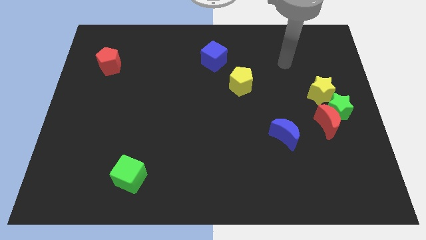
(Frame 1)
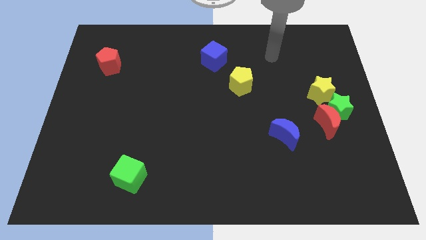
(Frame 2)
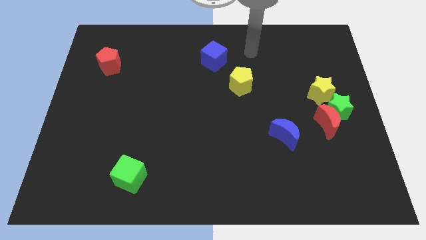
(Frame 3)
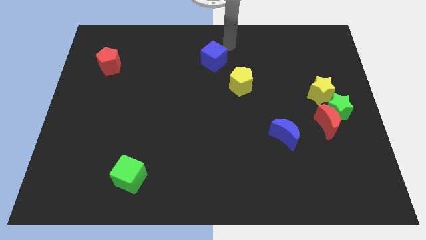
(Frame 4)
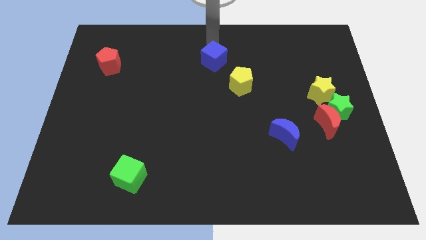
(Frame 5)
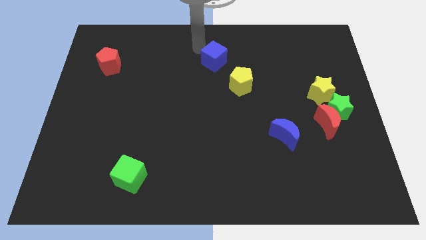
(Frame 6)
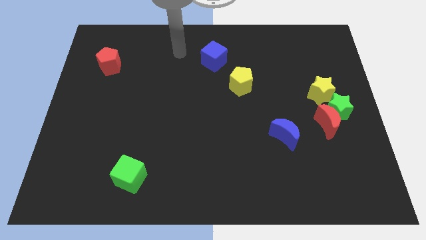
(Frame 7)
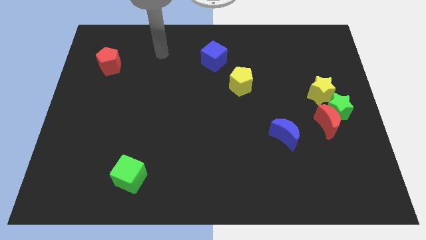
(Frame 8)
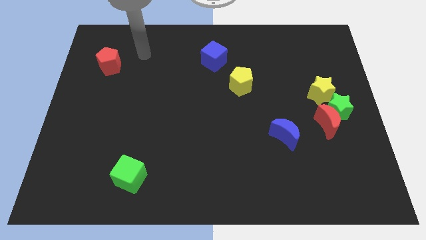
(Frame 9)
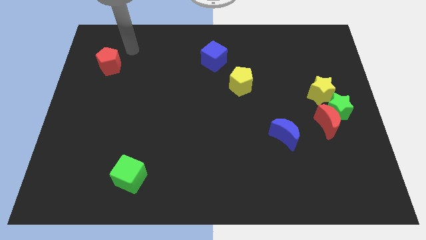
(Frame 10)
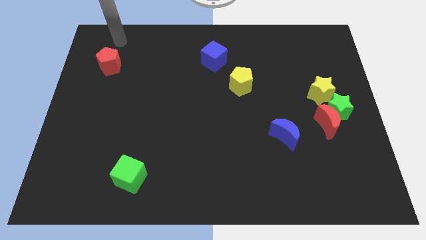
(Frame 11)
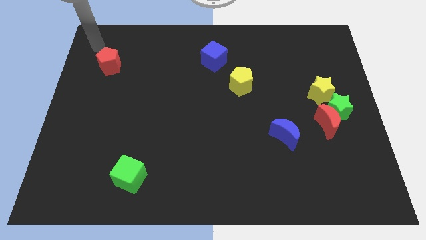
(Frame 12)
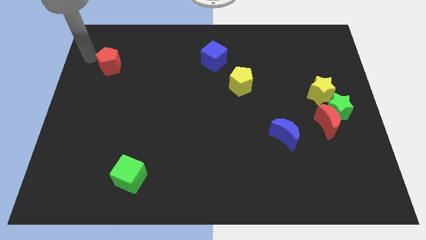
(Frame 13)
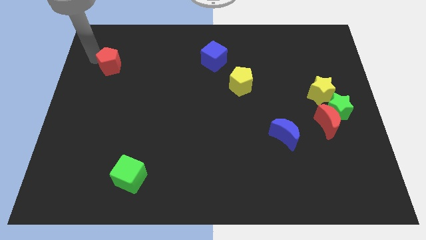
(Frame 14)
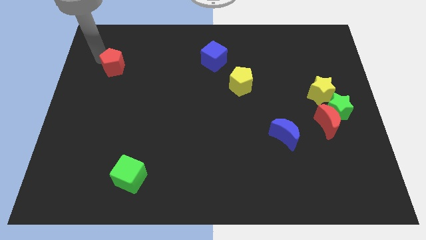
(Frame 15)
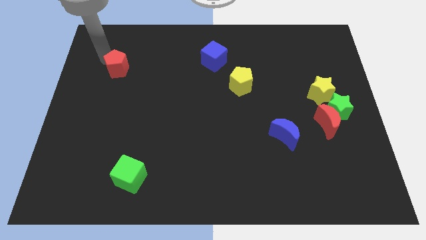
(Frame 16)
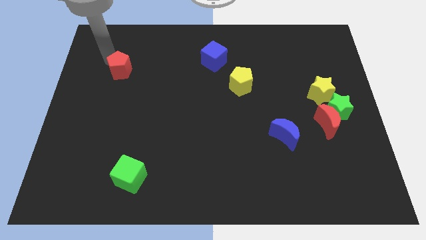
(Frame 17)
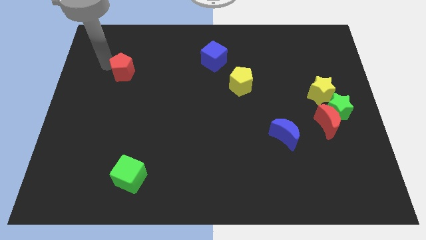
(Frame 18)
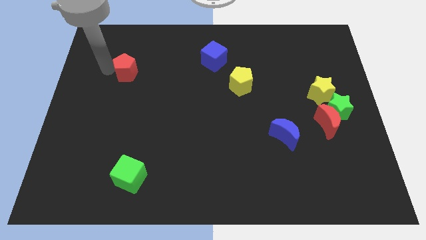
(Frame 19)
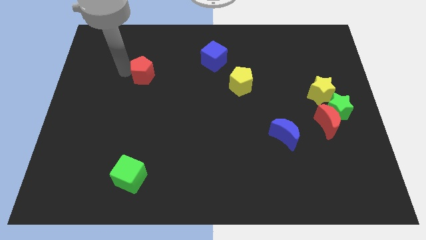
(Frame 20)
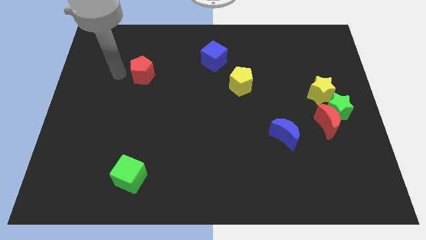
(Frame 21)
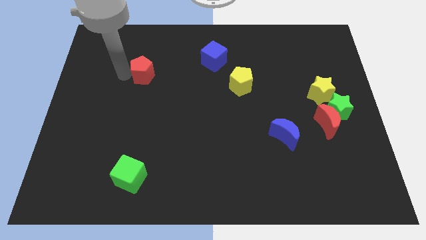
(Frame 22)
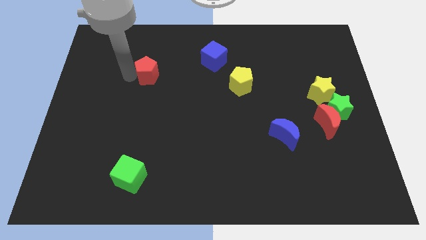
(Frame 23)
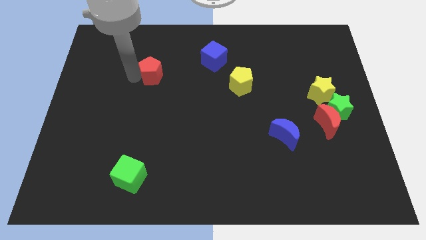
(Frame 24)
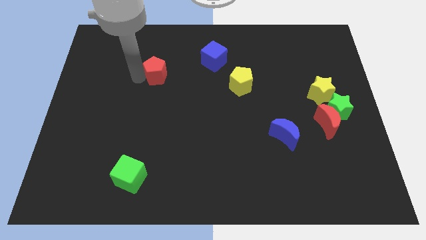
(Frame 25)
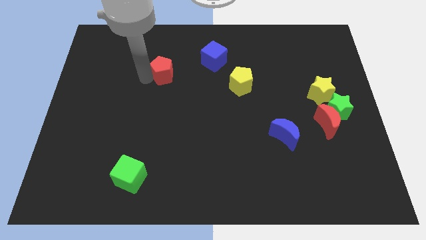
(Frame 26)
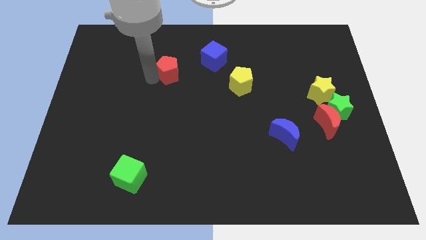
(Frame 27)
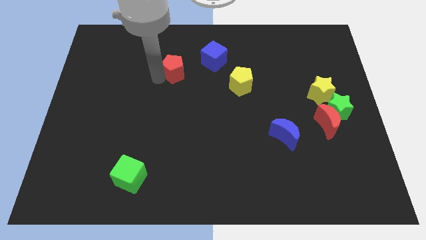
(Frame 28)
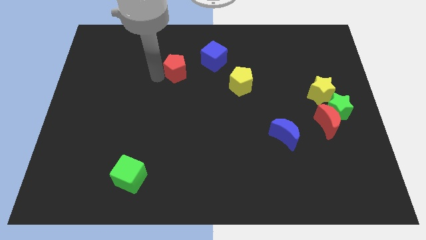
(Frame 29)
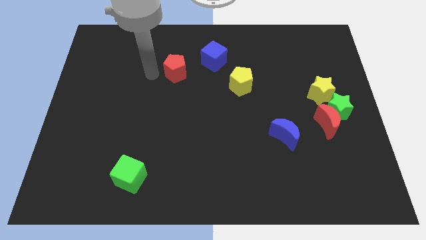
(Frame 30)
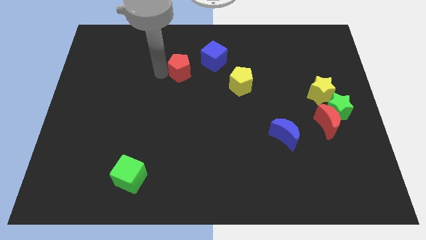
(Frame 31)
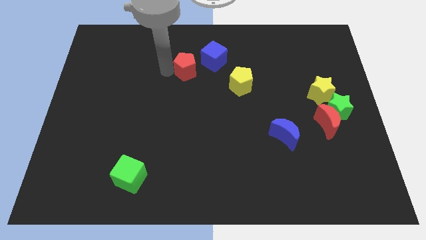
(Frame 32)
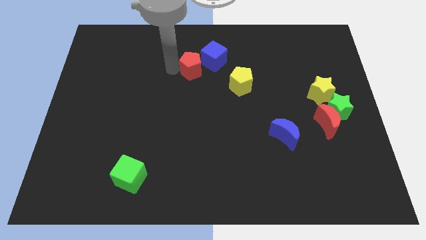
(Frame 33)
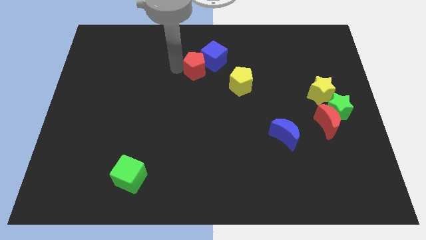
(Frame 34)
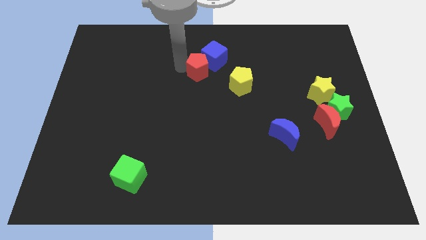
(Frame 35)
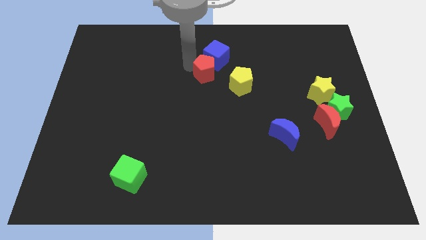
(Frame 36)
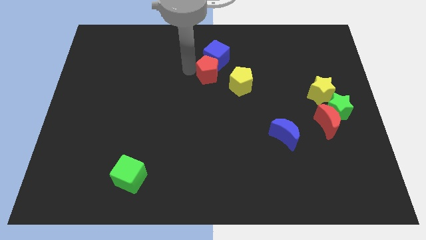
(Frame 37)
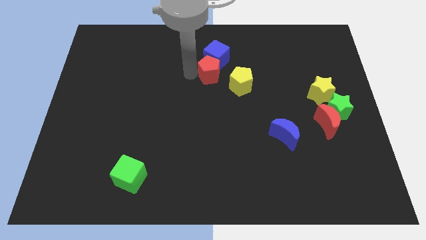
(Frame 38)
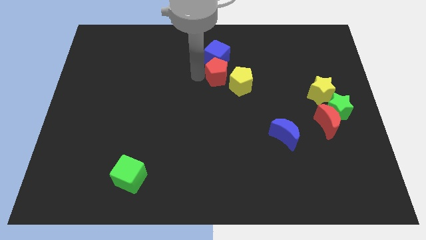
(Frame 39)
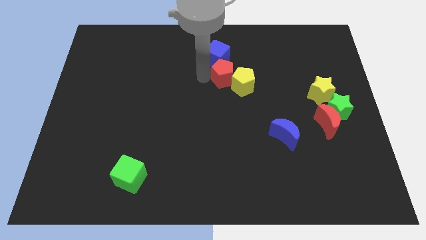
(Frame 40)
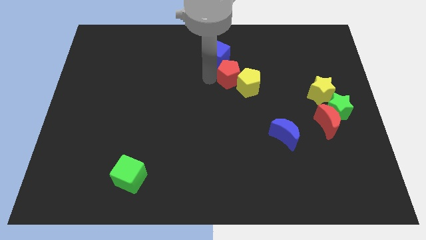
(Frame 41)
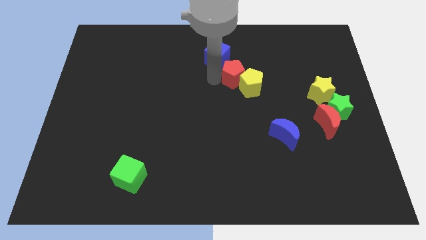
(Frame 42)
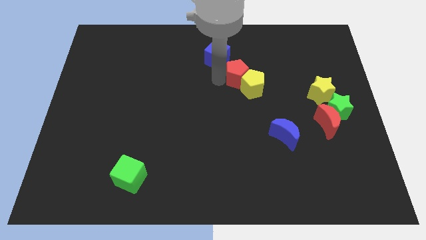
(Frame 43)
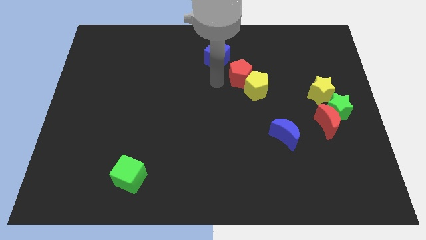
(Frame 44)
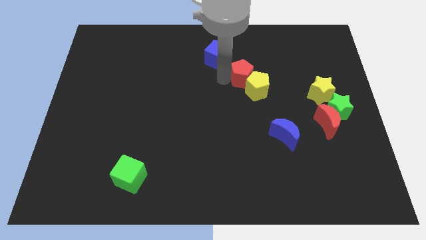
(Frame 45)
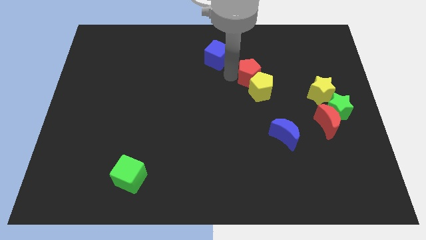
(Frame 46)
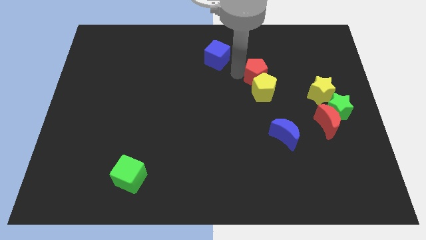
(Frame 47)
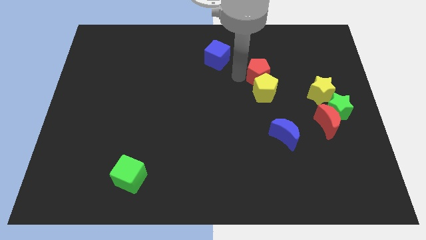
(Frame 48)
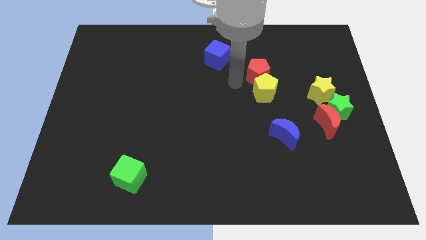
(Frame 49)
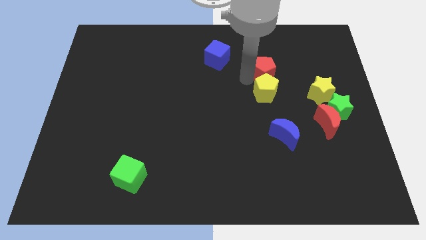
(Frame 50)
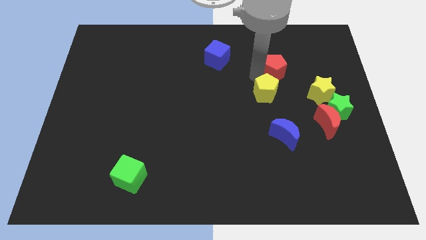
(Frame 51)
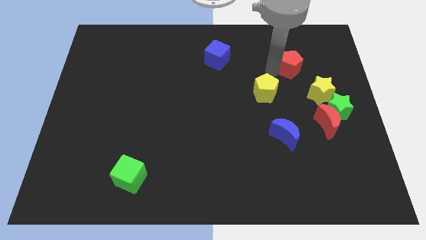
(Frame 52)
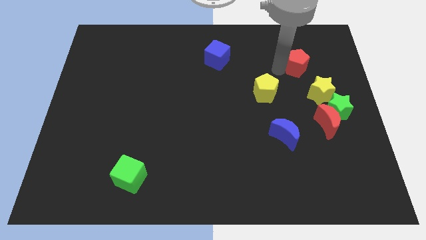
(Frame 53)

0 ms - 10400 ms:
push the red pentagon to the top side of the yellow star

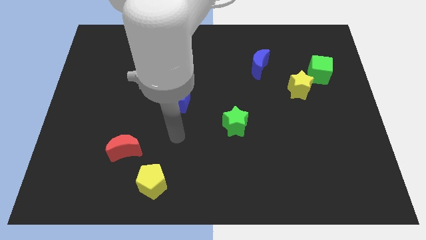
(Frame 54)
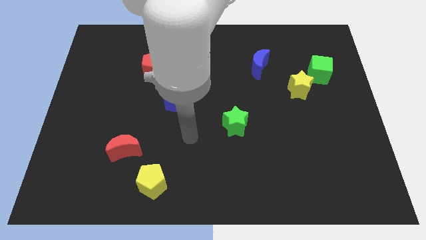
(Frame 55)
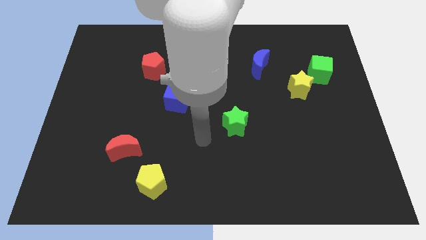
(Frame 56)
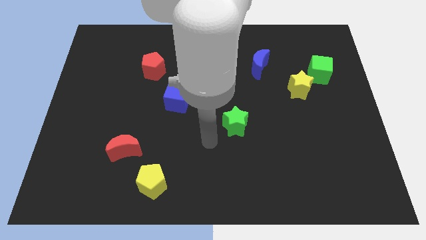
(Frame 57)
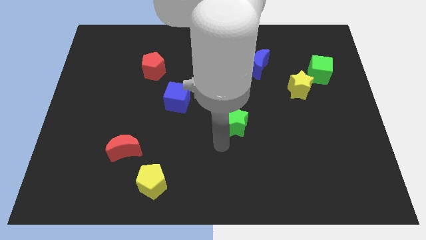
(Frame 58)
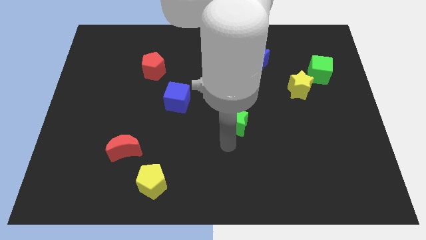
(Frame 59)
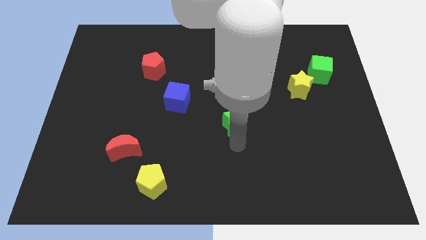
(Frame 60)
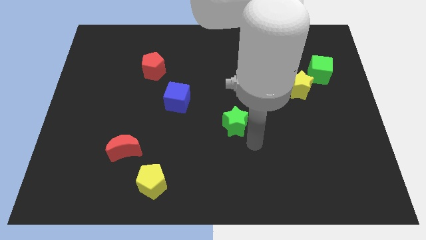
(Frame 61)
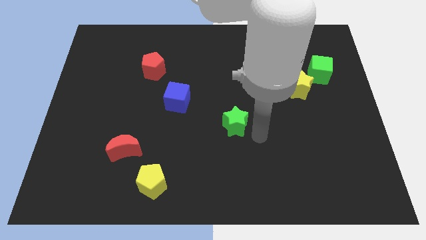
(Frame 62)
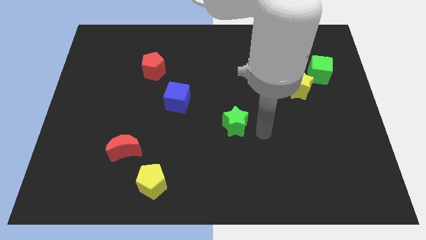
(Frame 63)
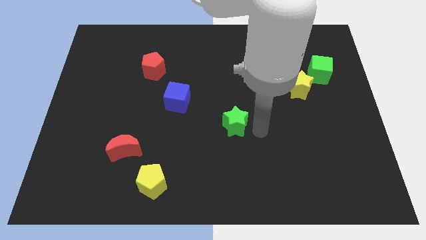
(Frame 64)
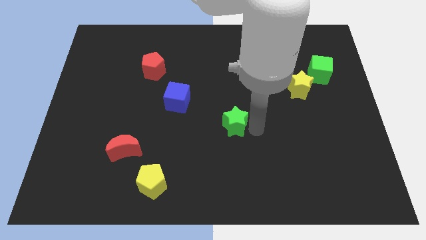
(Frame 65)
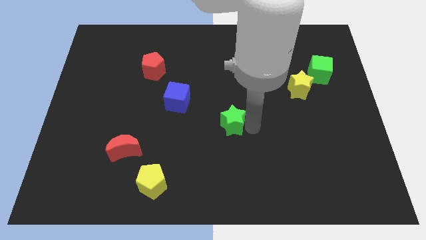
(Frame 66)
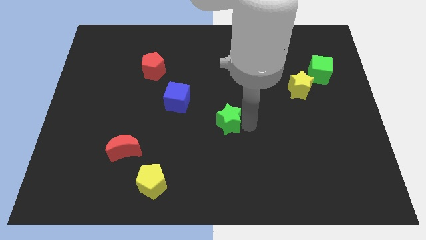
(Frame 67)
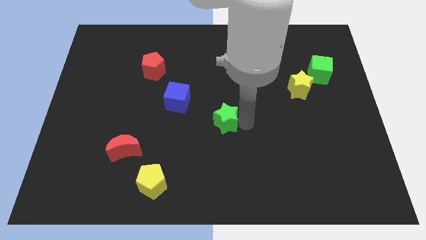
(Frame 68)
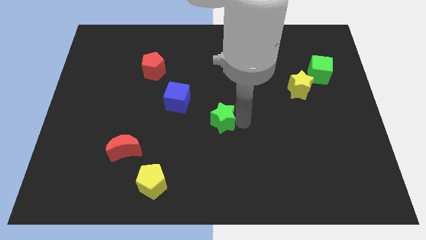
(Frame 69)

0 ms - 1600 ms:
slide the green star to the bottom right of the blue cube

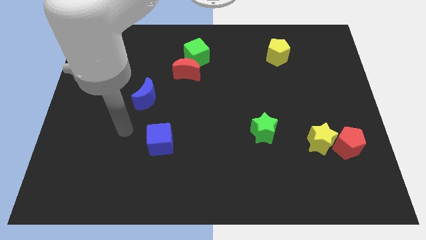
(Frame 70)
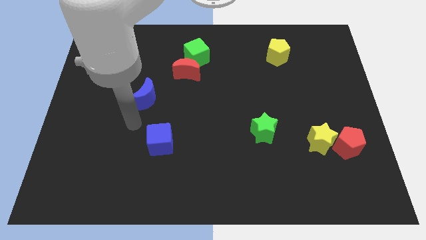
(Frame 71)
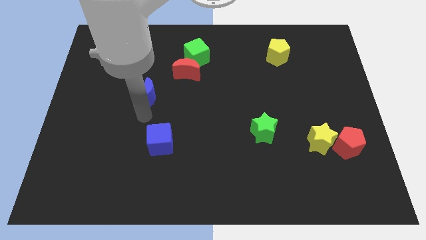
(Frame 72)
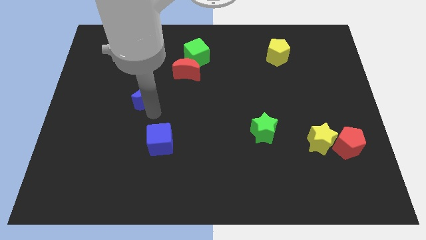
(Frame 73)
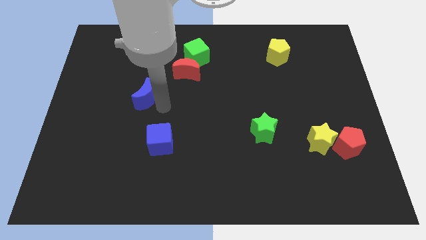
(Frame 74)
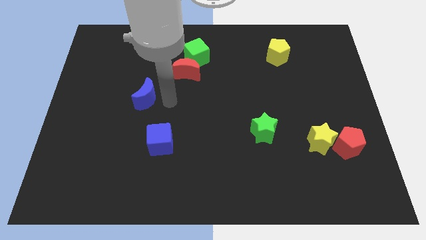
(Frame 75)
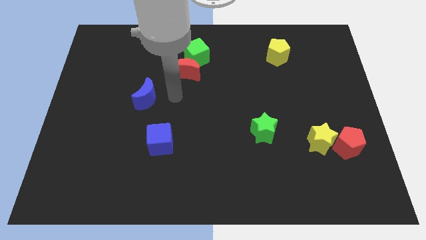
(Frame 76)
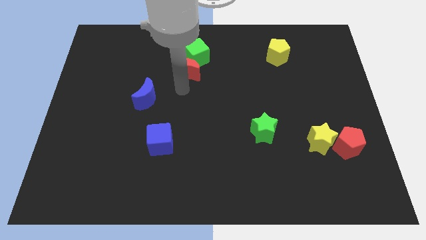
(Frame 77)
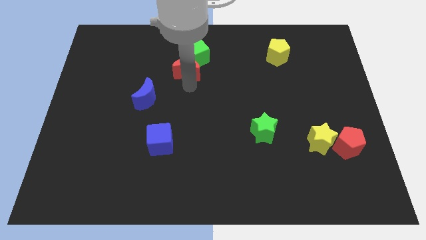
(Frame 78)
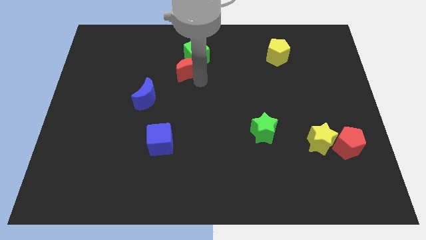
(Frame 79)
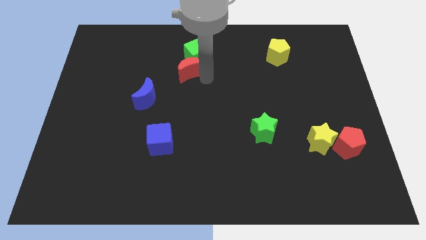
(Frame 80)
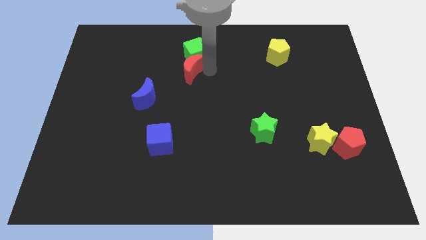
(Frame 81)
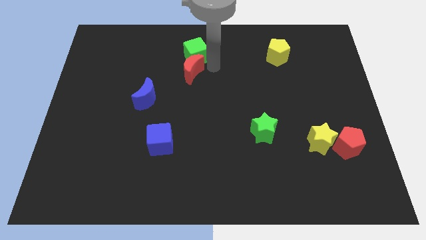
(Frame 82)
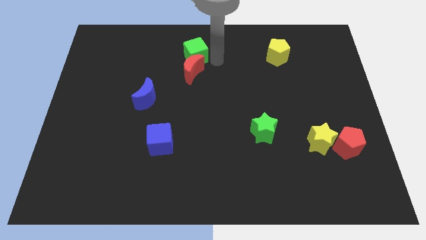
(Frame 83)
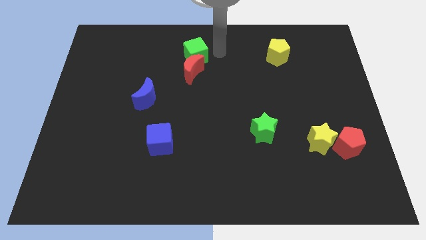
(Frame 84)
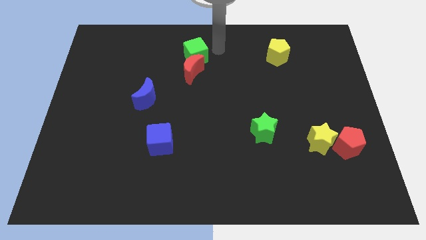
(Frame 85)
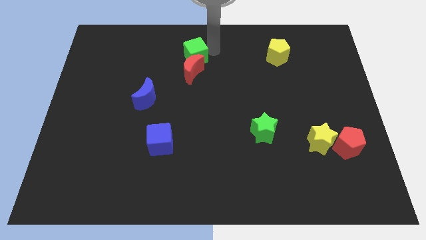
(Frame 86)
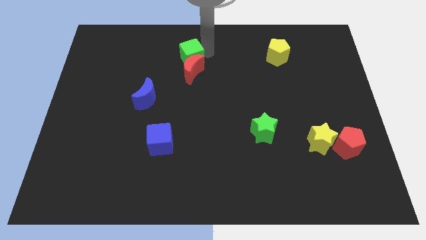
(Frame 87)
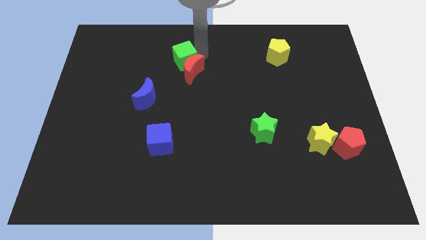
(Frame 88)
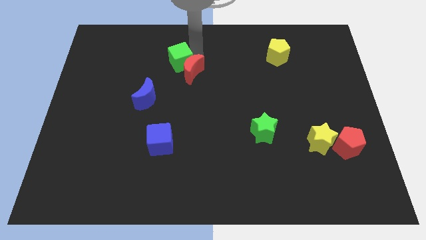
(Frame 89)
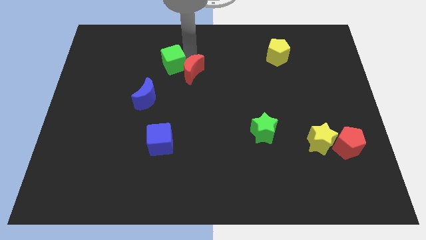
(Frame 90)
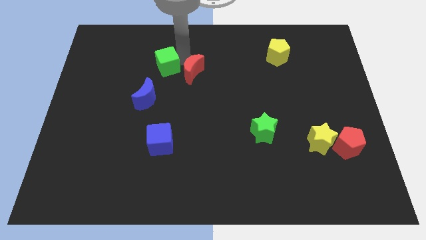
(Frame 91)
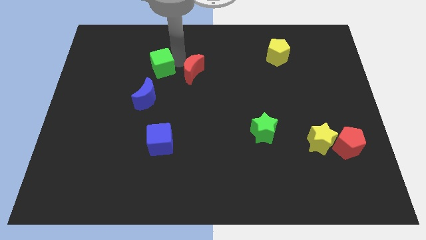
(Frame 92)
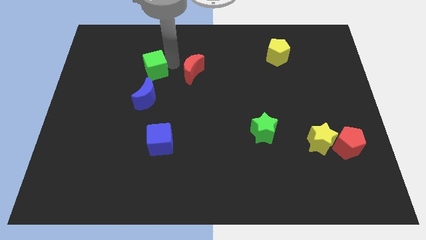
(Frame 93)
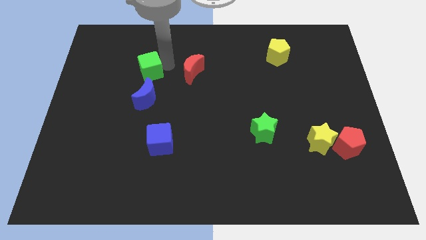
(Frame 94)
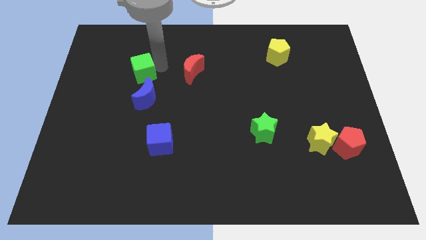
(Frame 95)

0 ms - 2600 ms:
slide the green cube to the top left of the blue moon
